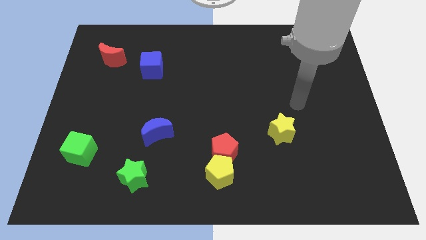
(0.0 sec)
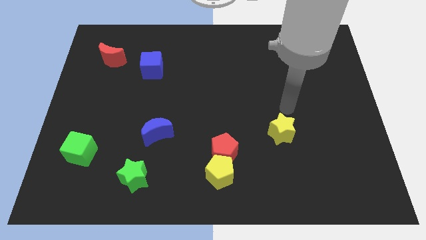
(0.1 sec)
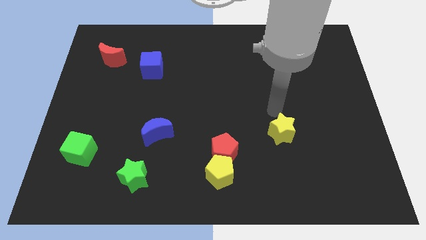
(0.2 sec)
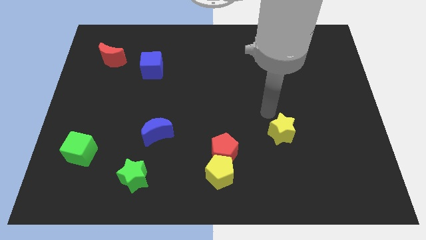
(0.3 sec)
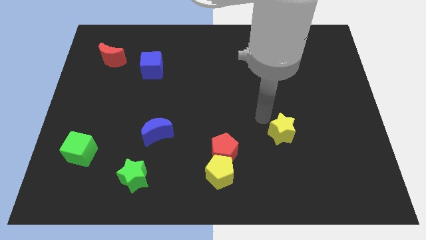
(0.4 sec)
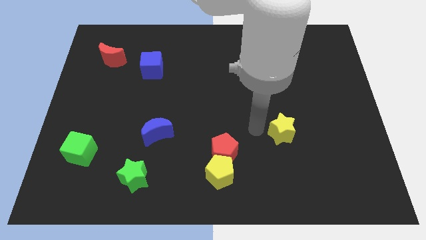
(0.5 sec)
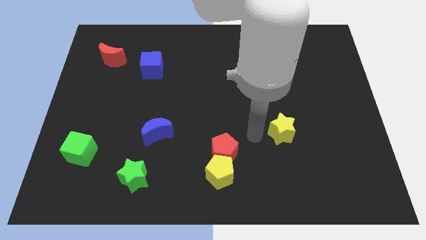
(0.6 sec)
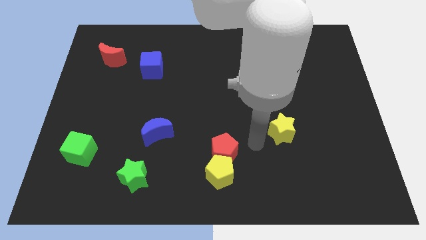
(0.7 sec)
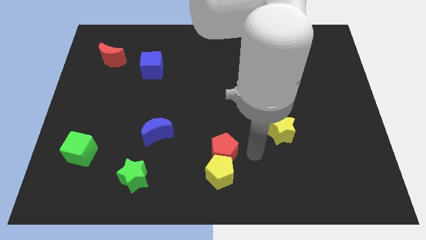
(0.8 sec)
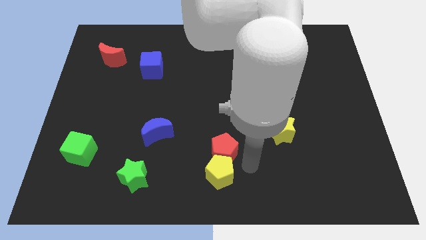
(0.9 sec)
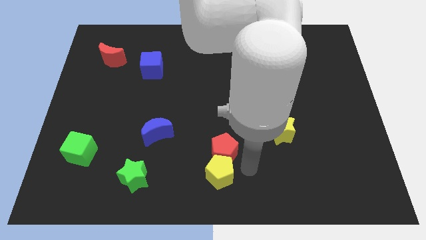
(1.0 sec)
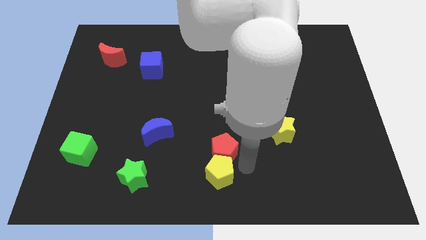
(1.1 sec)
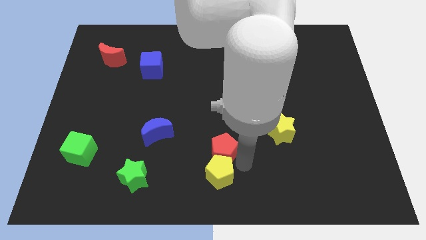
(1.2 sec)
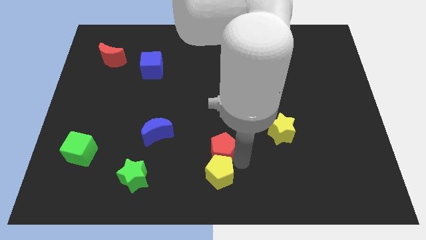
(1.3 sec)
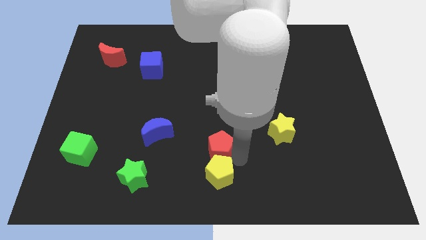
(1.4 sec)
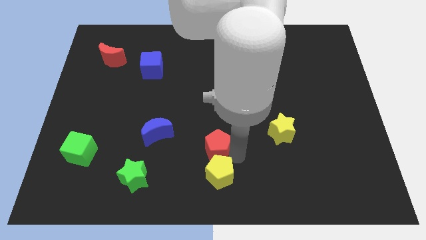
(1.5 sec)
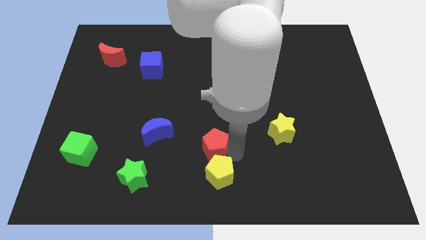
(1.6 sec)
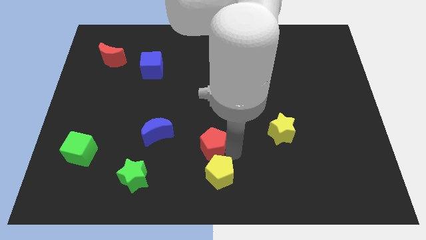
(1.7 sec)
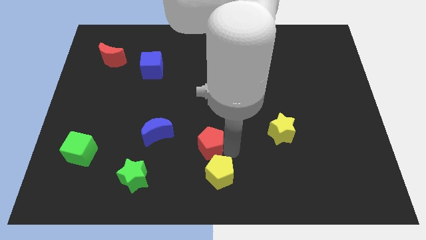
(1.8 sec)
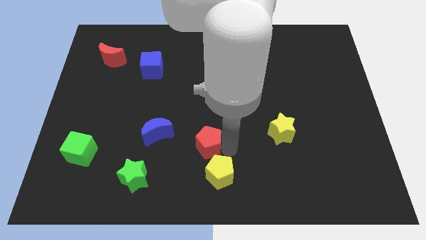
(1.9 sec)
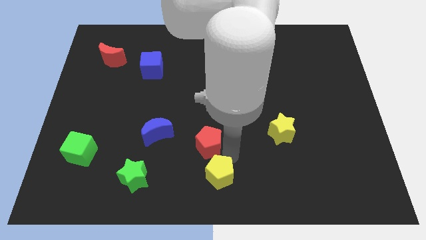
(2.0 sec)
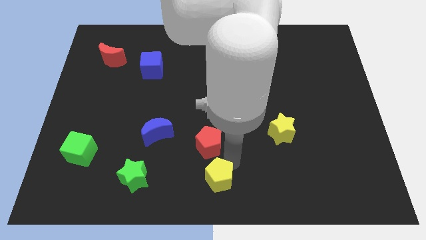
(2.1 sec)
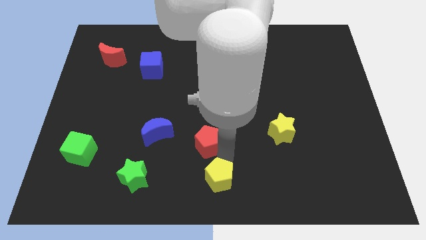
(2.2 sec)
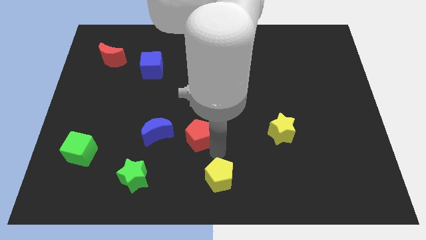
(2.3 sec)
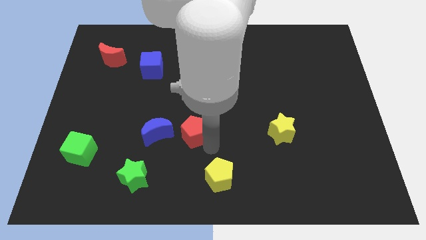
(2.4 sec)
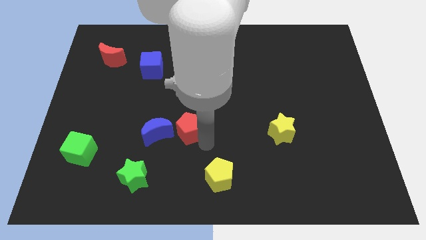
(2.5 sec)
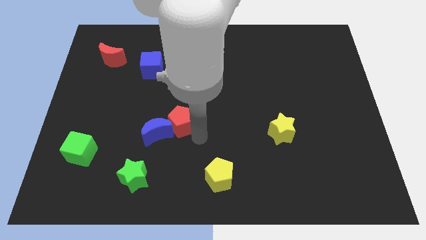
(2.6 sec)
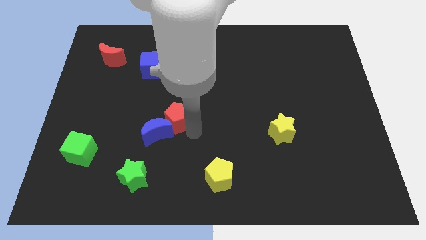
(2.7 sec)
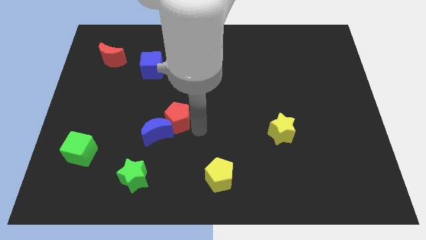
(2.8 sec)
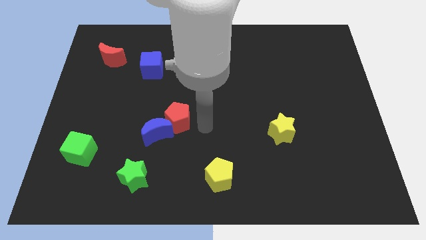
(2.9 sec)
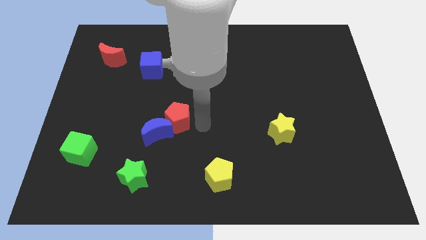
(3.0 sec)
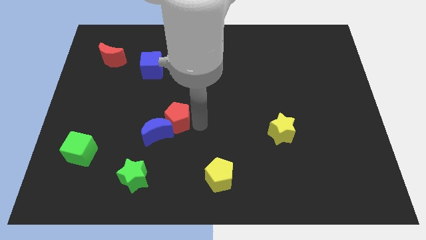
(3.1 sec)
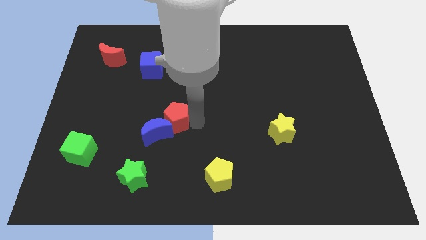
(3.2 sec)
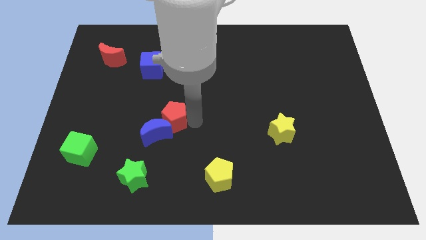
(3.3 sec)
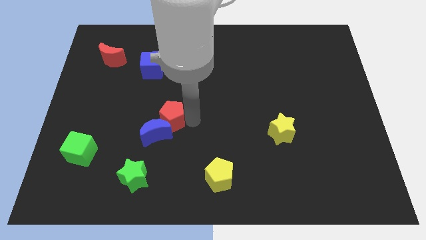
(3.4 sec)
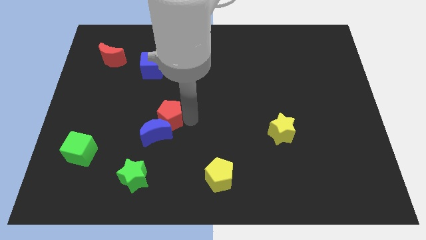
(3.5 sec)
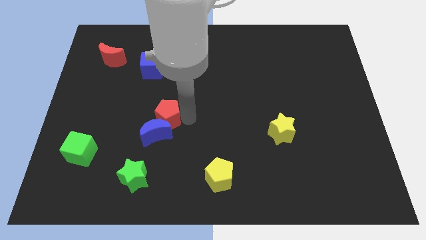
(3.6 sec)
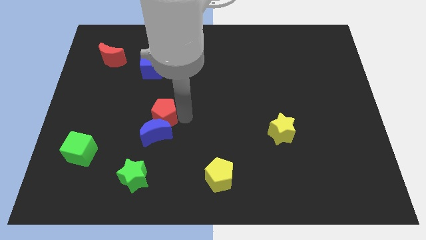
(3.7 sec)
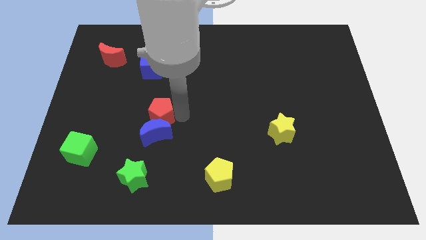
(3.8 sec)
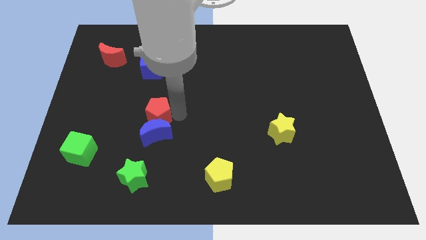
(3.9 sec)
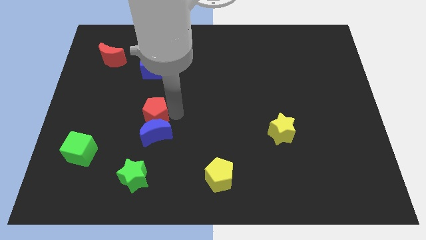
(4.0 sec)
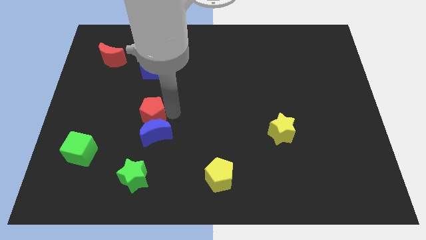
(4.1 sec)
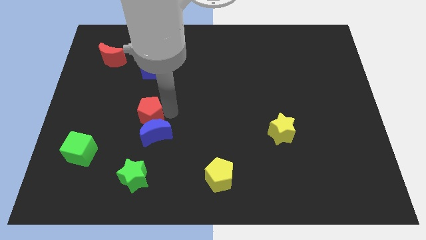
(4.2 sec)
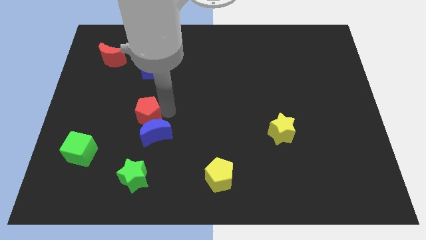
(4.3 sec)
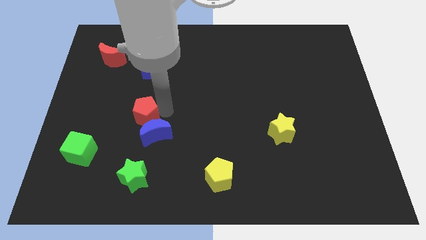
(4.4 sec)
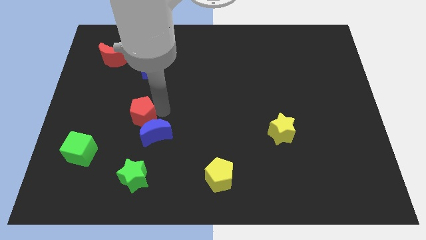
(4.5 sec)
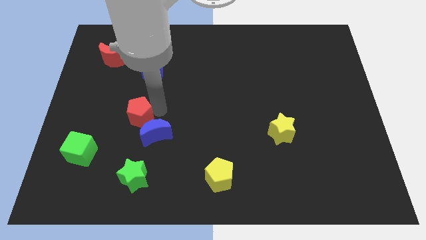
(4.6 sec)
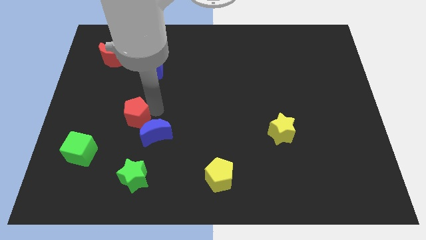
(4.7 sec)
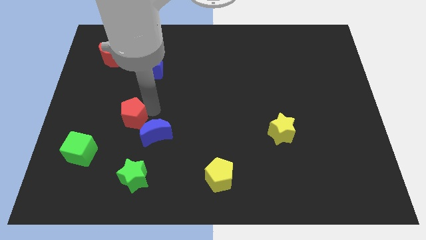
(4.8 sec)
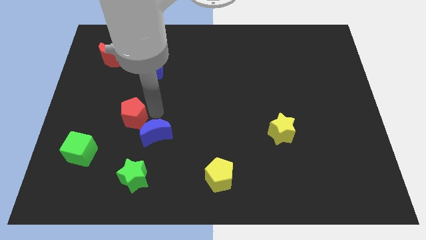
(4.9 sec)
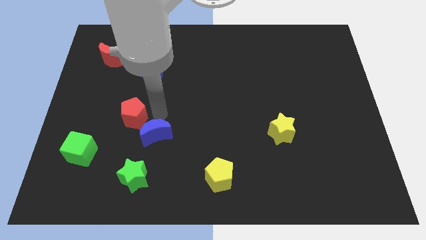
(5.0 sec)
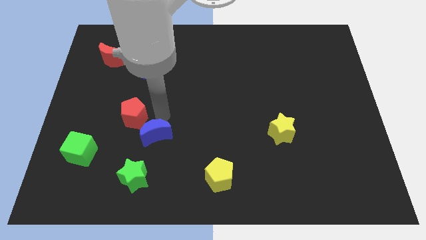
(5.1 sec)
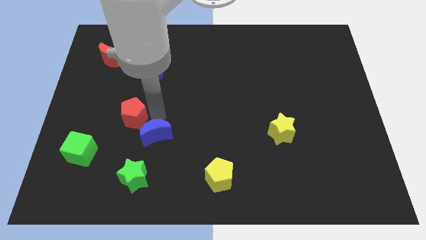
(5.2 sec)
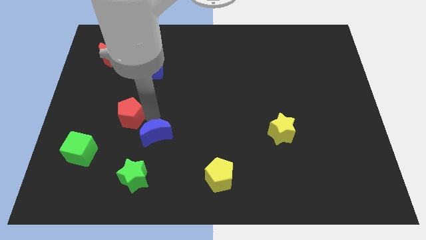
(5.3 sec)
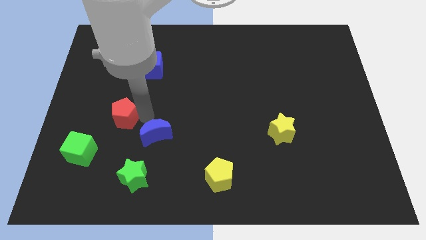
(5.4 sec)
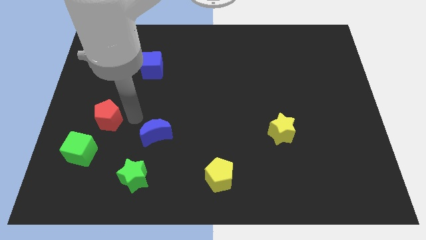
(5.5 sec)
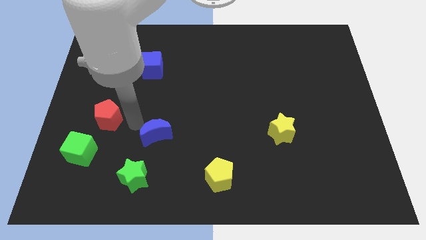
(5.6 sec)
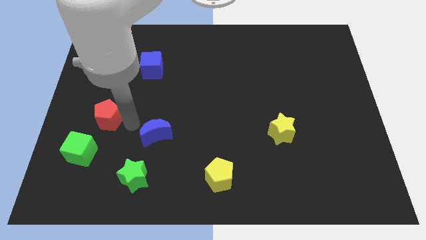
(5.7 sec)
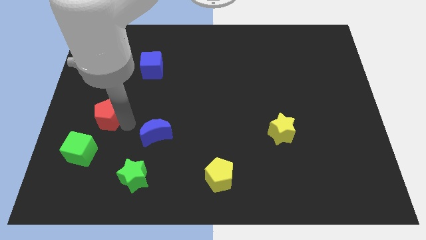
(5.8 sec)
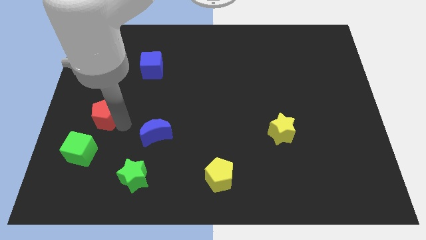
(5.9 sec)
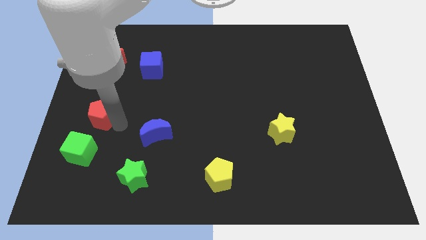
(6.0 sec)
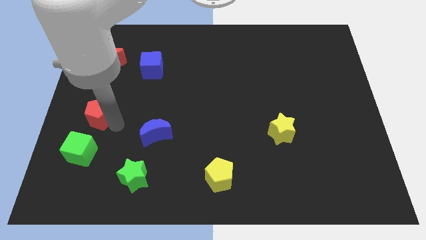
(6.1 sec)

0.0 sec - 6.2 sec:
slide the red pentagon to the left side of the board

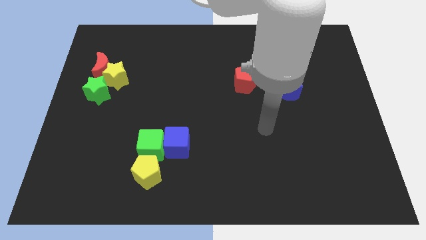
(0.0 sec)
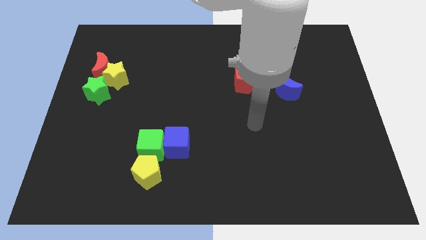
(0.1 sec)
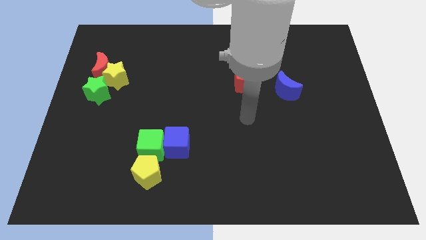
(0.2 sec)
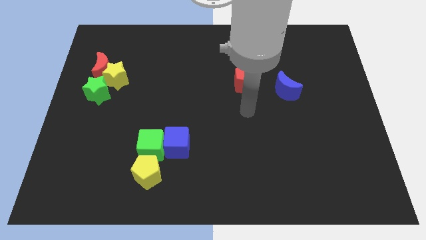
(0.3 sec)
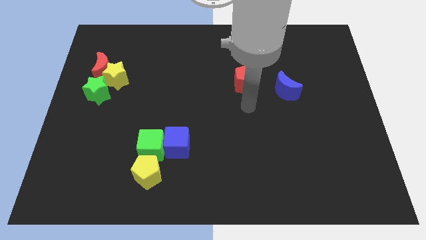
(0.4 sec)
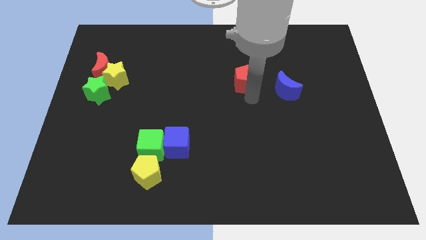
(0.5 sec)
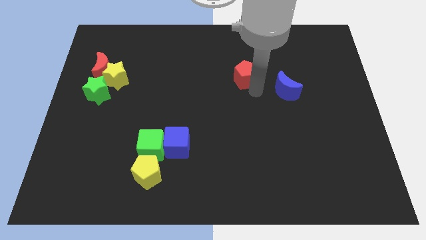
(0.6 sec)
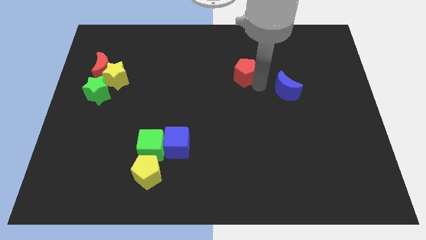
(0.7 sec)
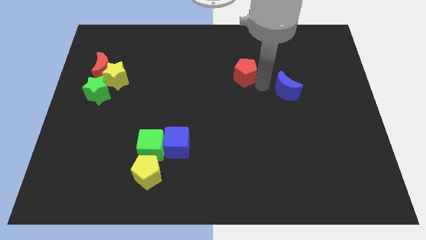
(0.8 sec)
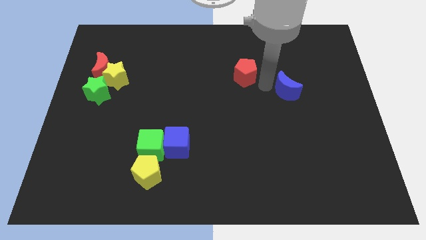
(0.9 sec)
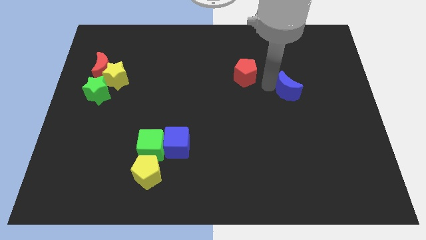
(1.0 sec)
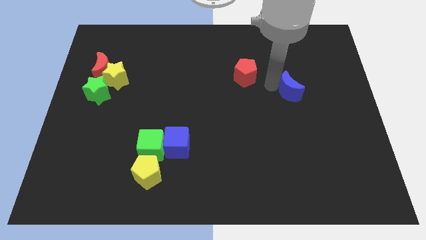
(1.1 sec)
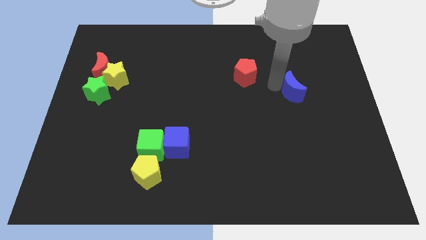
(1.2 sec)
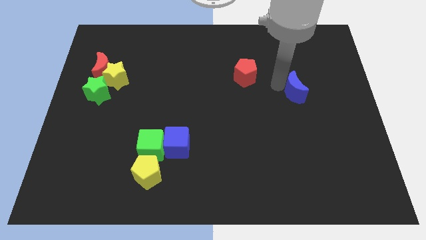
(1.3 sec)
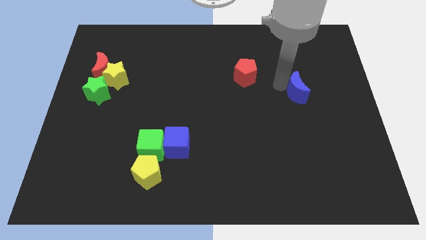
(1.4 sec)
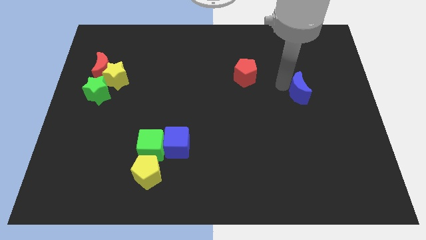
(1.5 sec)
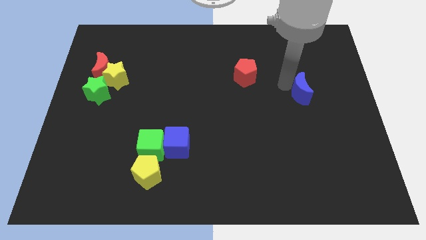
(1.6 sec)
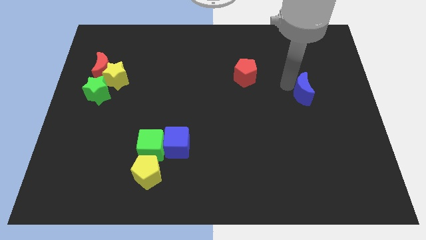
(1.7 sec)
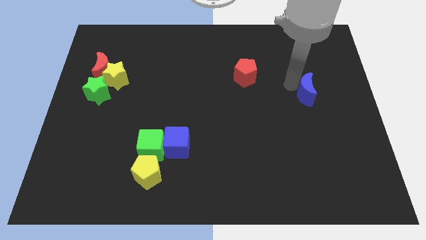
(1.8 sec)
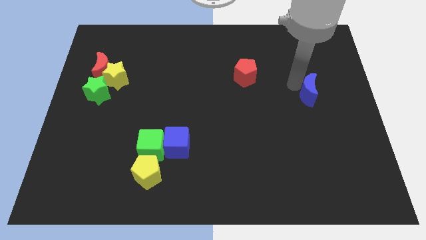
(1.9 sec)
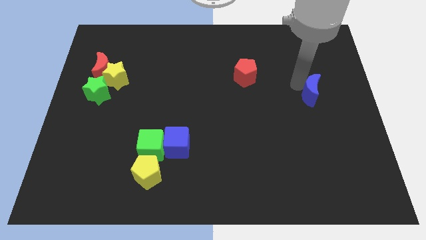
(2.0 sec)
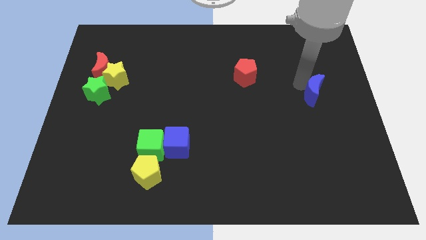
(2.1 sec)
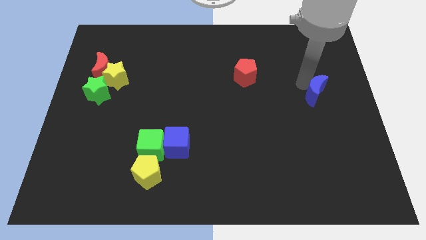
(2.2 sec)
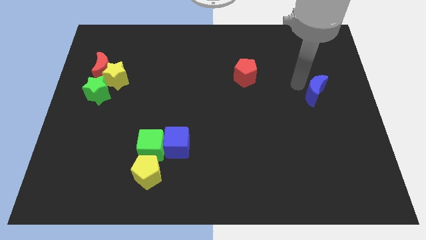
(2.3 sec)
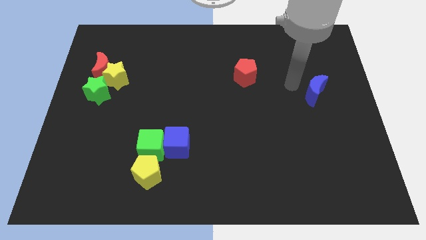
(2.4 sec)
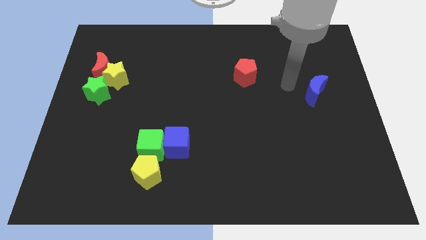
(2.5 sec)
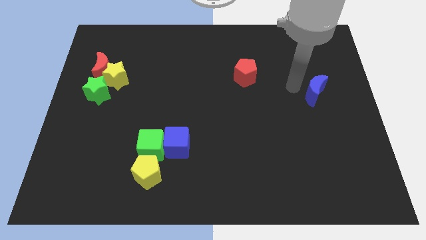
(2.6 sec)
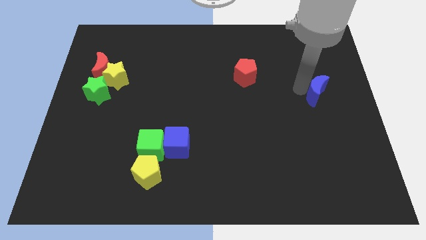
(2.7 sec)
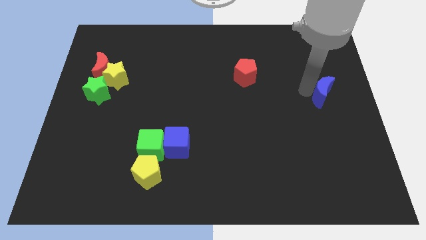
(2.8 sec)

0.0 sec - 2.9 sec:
move the blue moon to the right side of the board
